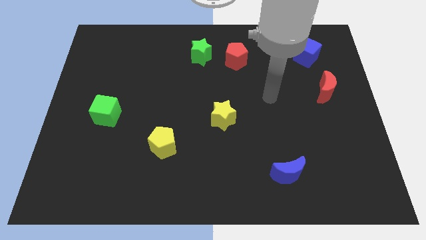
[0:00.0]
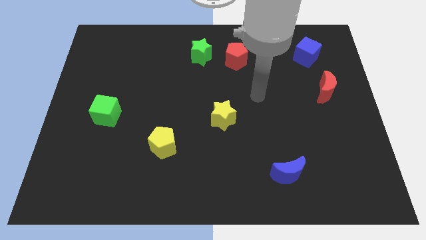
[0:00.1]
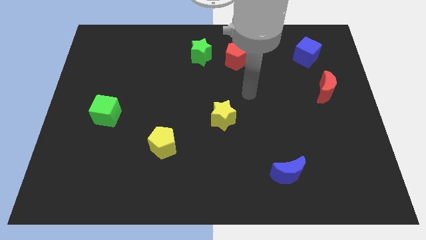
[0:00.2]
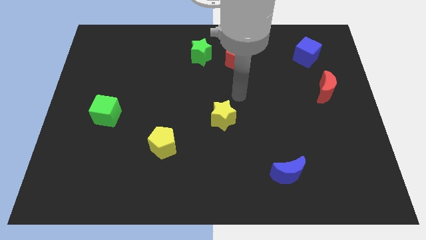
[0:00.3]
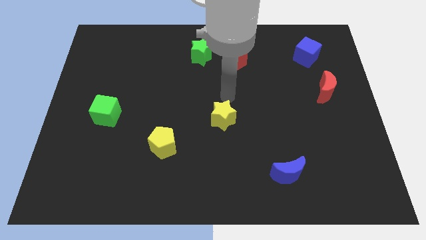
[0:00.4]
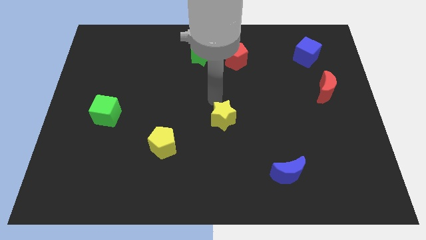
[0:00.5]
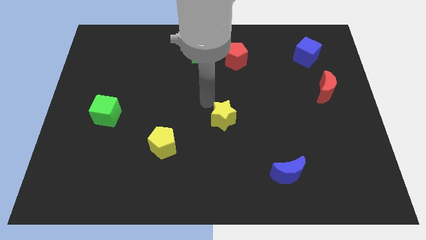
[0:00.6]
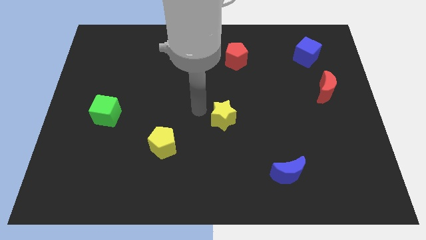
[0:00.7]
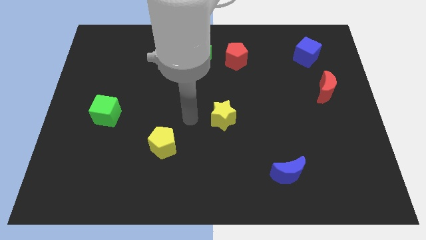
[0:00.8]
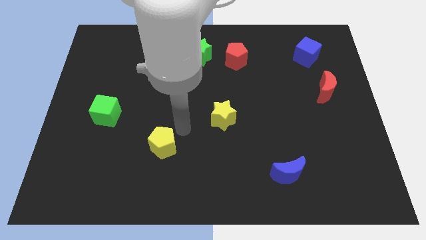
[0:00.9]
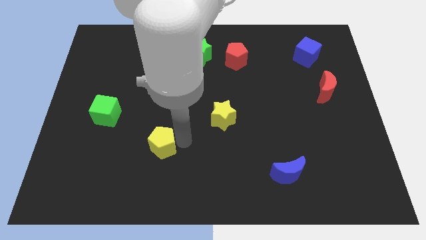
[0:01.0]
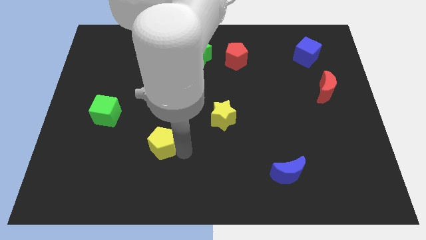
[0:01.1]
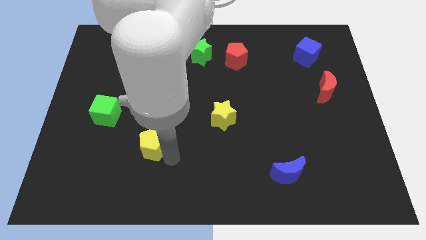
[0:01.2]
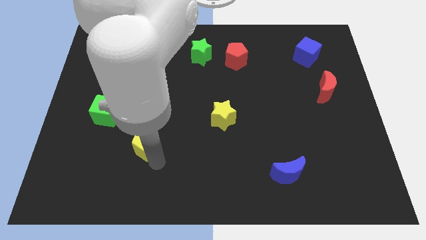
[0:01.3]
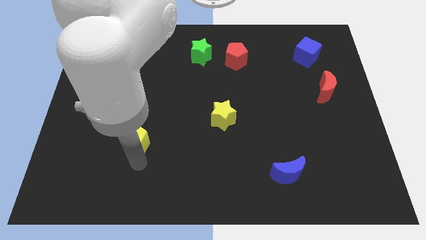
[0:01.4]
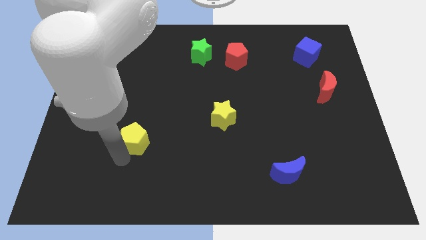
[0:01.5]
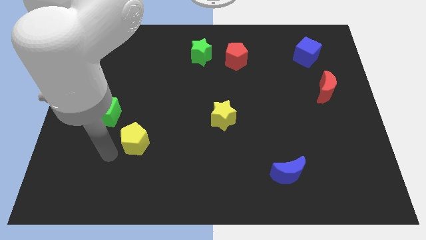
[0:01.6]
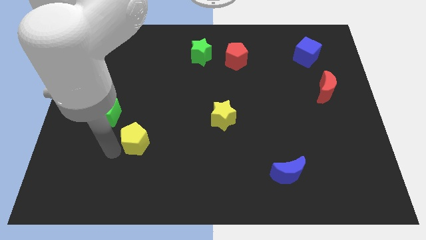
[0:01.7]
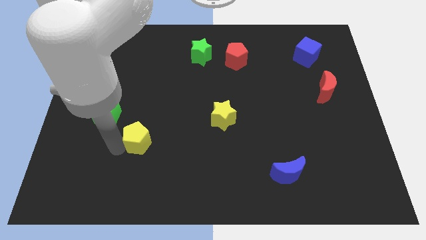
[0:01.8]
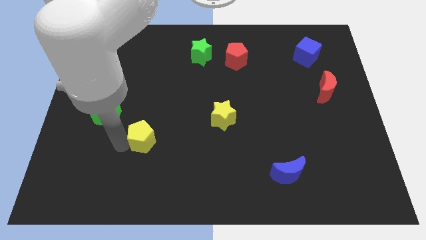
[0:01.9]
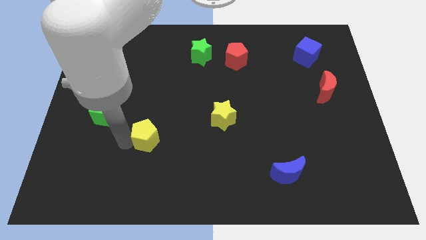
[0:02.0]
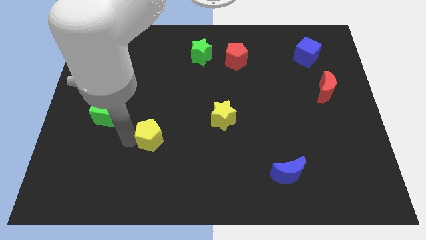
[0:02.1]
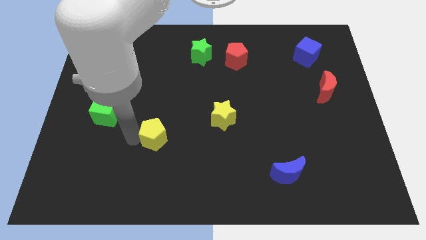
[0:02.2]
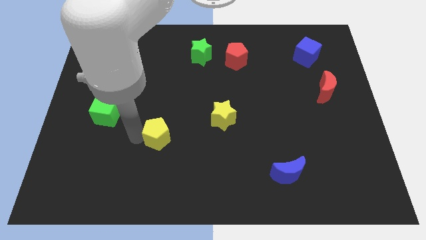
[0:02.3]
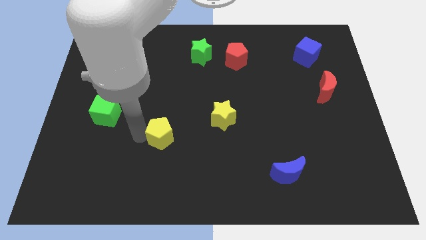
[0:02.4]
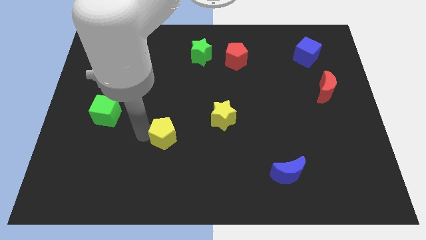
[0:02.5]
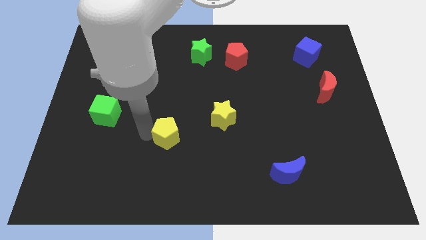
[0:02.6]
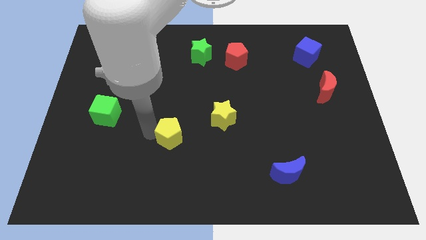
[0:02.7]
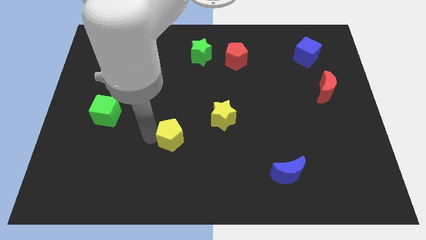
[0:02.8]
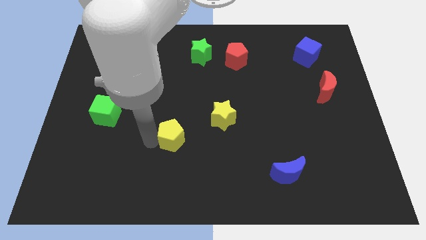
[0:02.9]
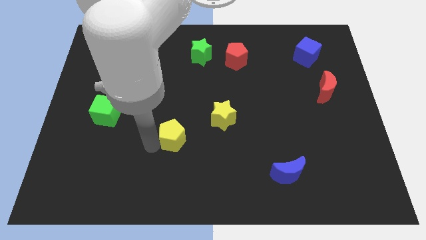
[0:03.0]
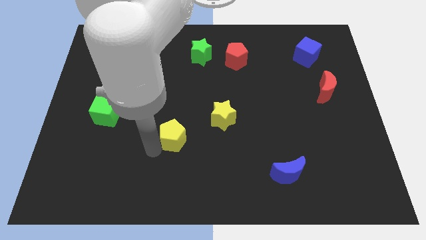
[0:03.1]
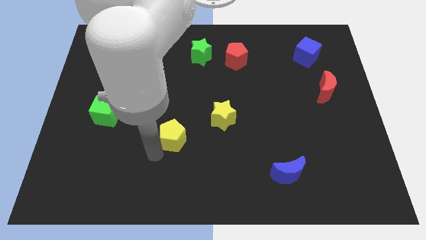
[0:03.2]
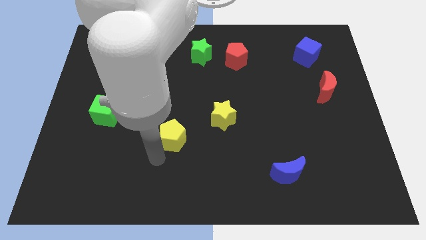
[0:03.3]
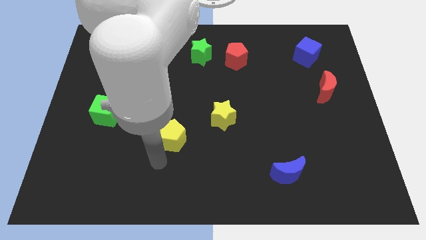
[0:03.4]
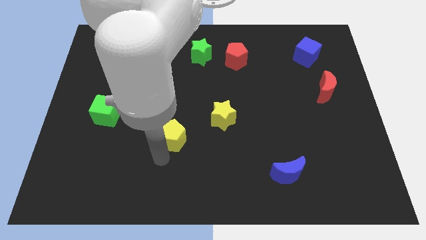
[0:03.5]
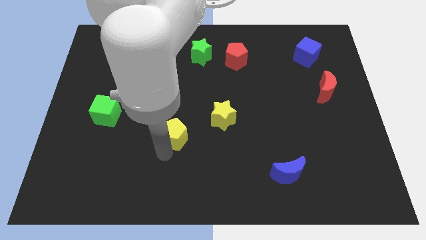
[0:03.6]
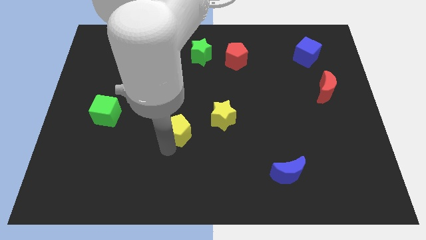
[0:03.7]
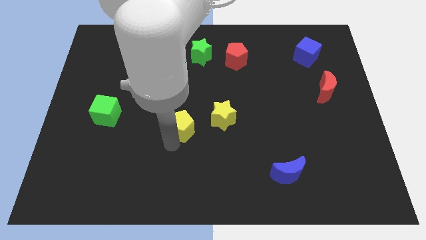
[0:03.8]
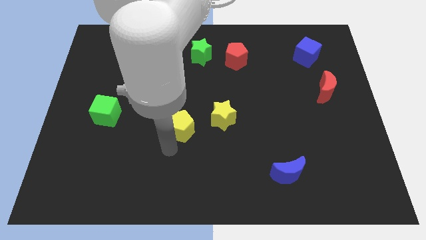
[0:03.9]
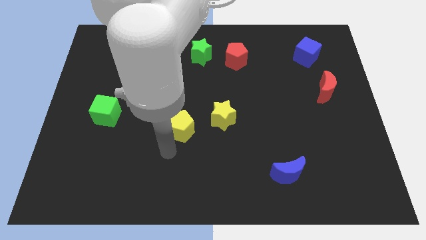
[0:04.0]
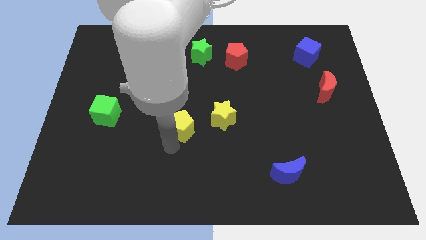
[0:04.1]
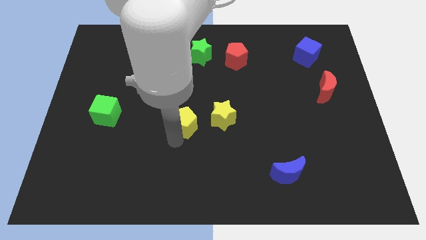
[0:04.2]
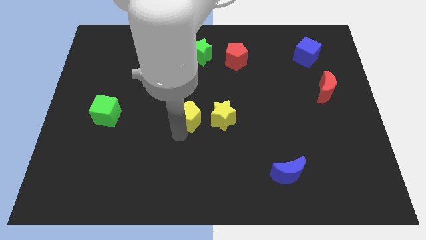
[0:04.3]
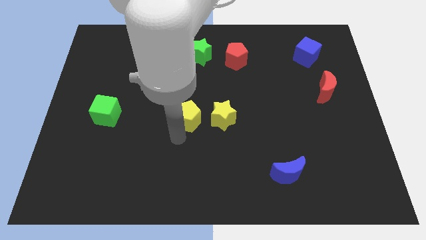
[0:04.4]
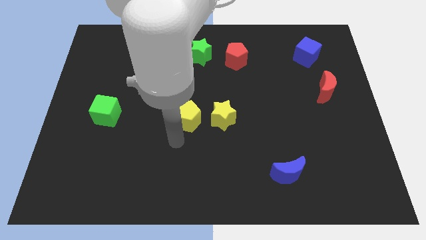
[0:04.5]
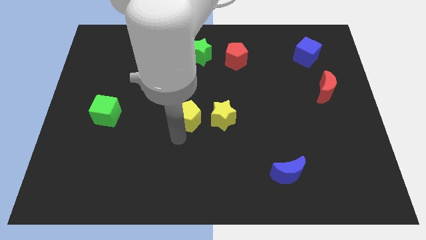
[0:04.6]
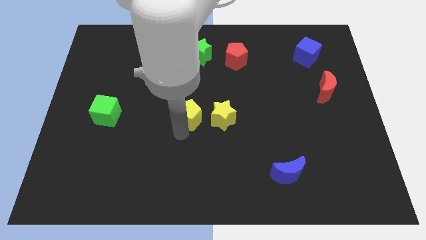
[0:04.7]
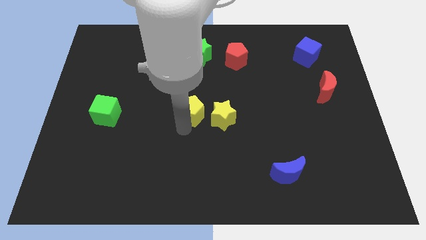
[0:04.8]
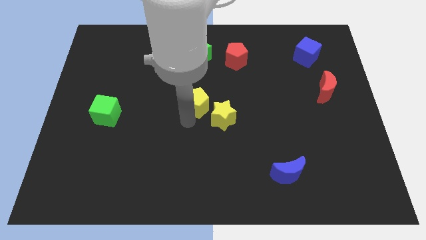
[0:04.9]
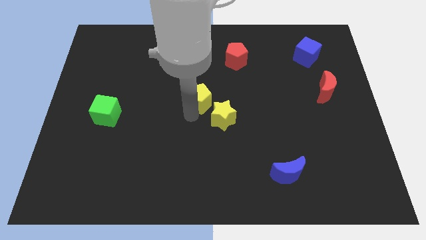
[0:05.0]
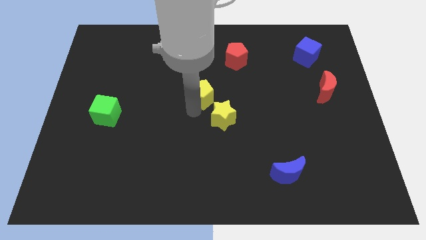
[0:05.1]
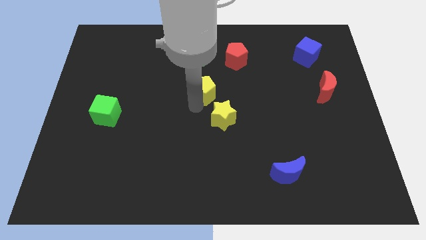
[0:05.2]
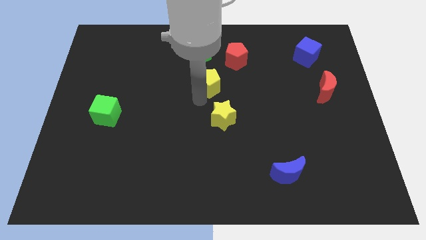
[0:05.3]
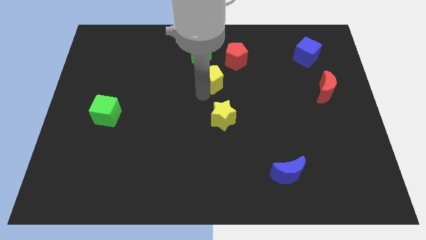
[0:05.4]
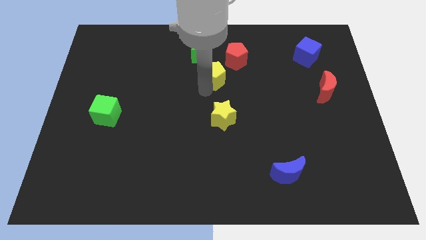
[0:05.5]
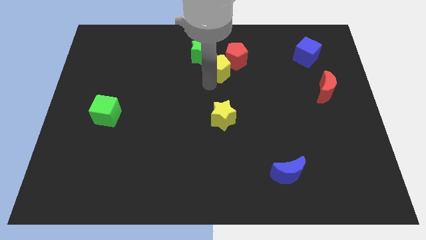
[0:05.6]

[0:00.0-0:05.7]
slide the yellow pentagon to the red pentagon

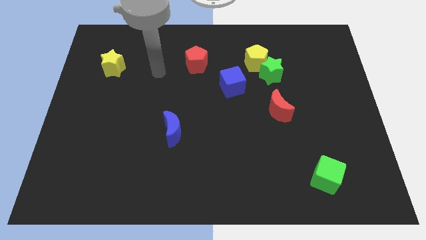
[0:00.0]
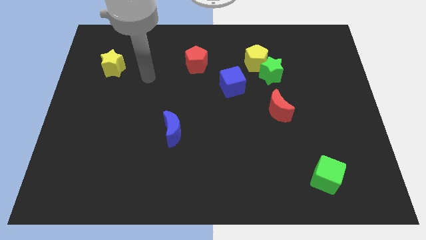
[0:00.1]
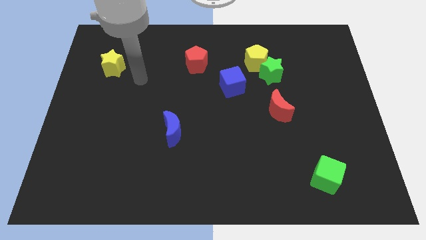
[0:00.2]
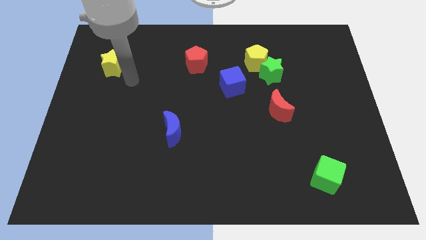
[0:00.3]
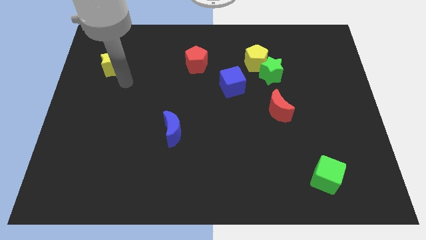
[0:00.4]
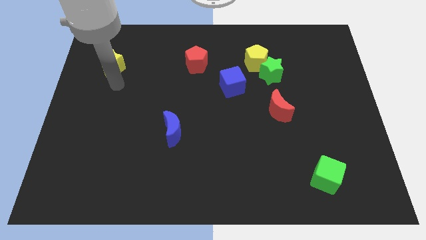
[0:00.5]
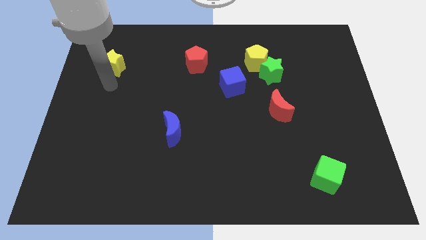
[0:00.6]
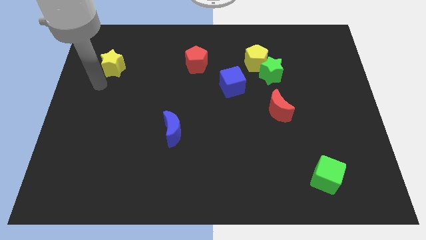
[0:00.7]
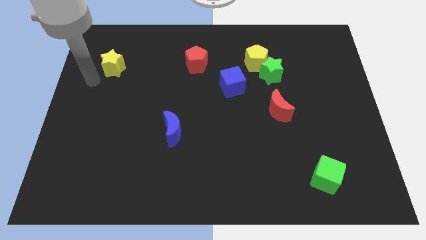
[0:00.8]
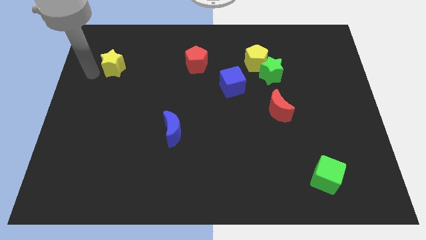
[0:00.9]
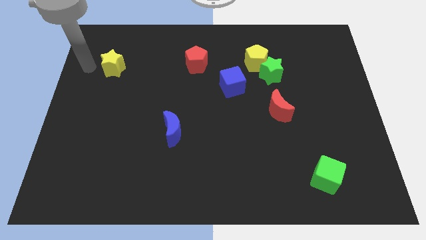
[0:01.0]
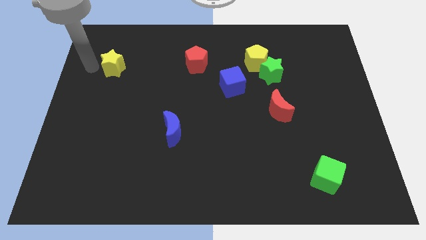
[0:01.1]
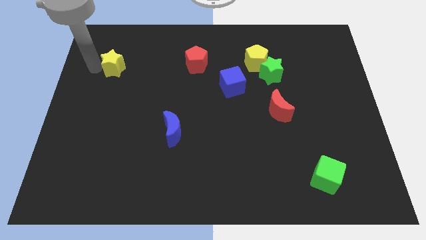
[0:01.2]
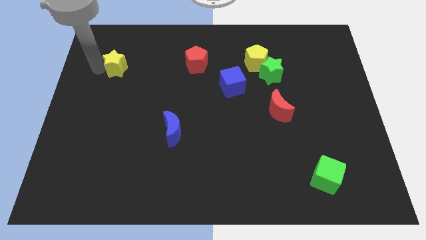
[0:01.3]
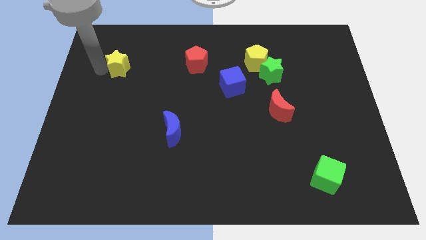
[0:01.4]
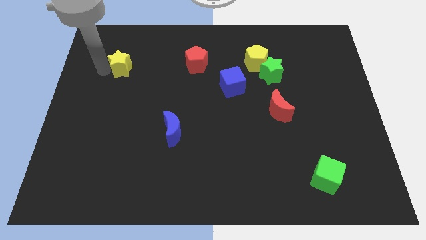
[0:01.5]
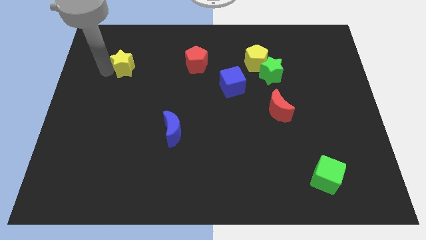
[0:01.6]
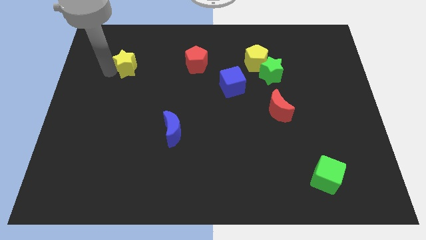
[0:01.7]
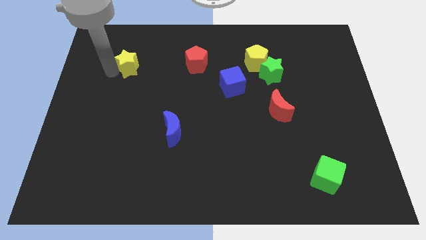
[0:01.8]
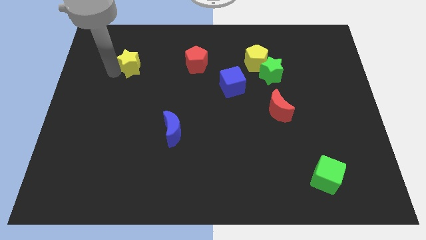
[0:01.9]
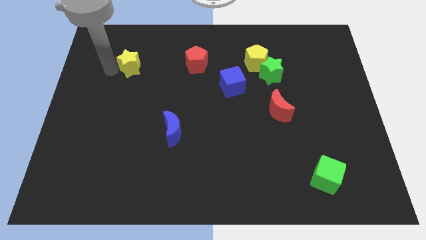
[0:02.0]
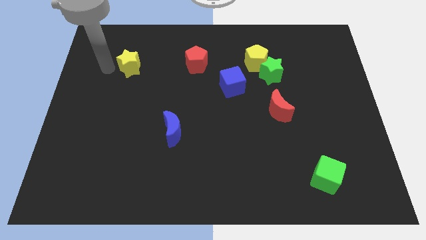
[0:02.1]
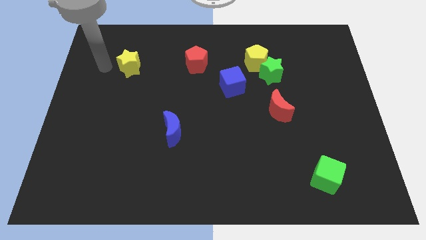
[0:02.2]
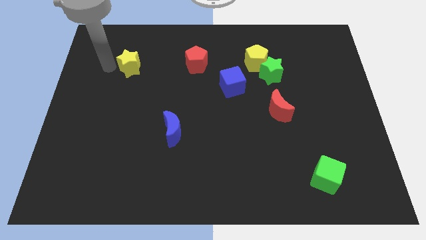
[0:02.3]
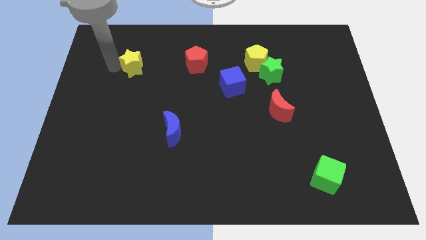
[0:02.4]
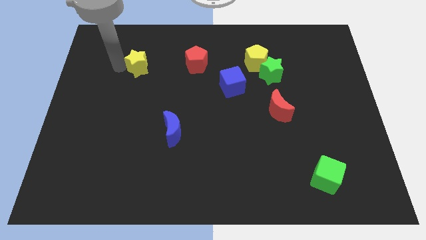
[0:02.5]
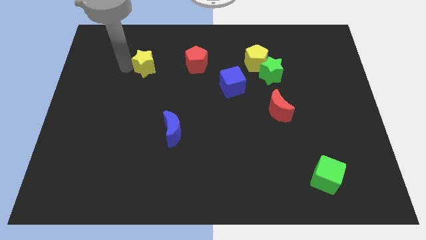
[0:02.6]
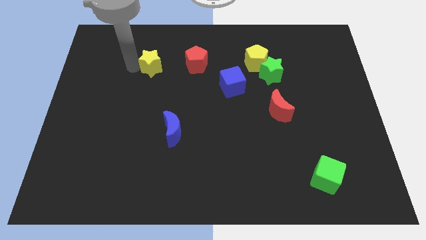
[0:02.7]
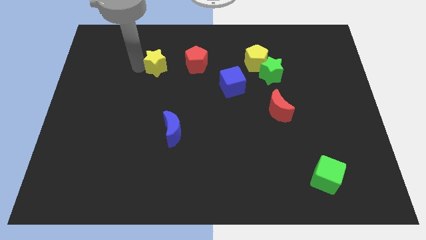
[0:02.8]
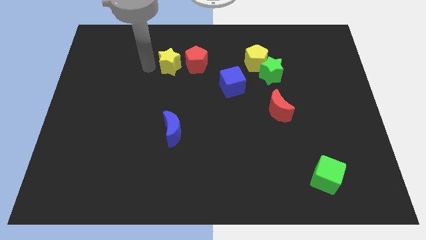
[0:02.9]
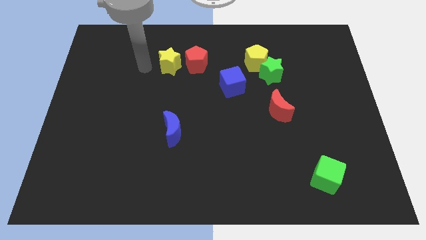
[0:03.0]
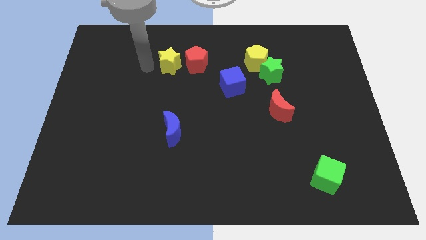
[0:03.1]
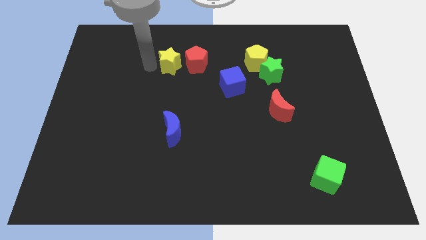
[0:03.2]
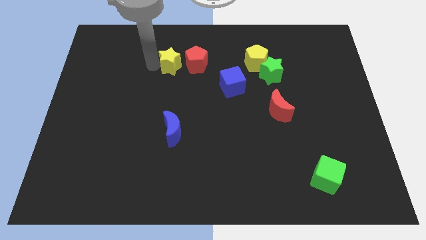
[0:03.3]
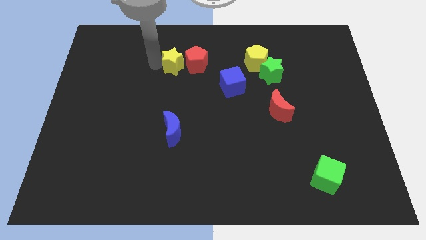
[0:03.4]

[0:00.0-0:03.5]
push the yellow star towards the red pentagon
